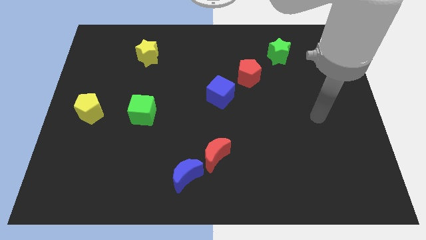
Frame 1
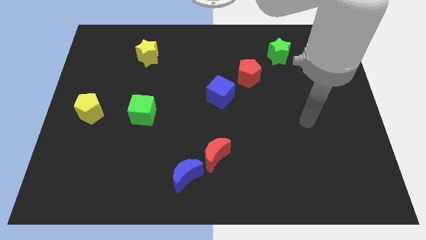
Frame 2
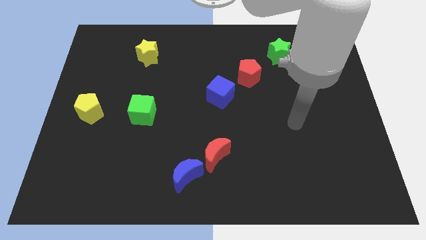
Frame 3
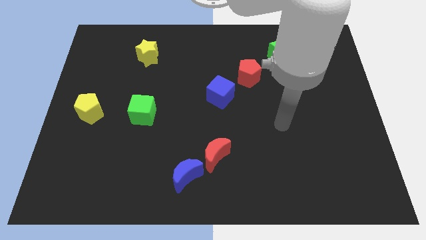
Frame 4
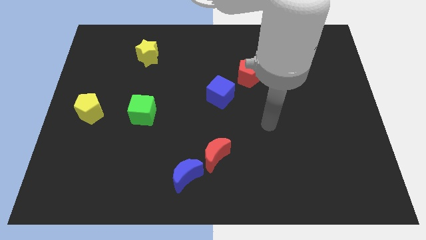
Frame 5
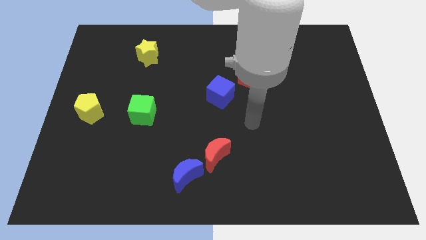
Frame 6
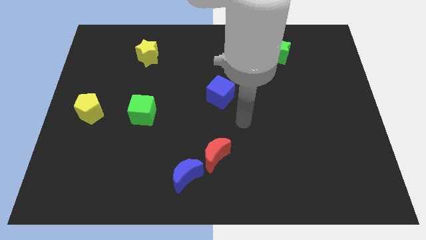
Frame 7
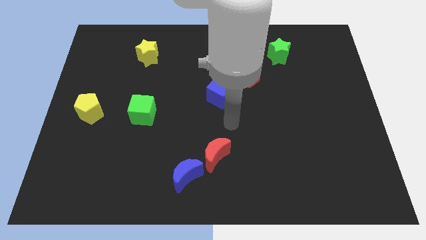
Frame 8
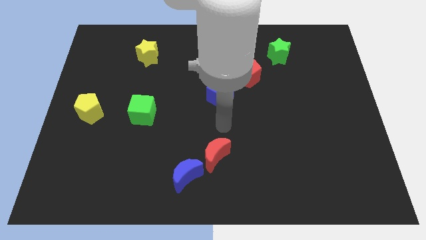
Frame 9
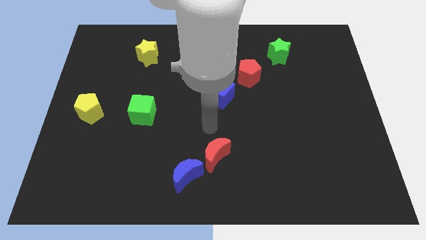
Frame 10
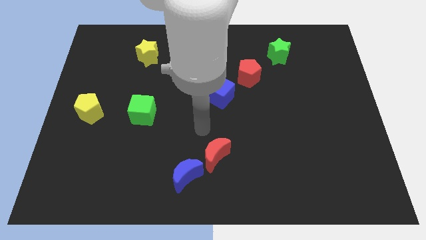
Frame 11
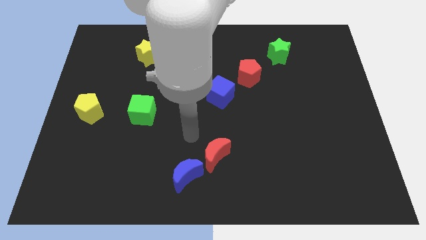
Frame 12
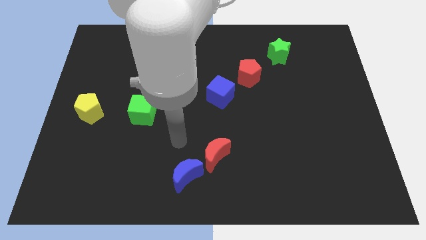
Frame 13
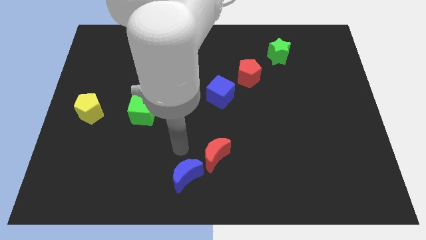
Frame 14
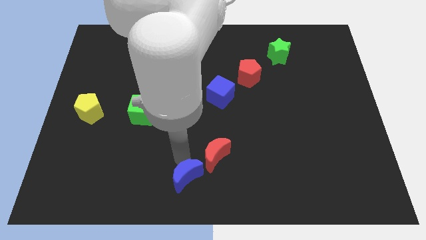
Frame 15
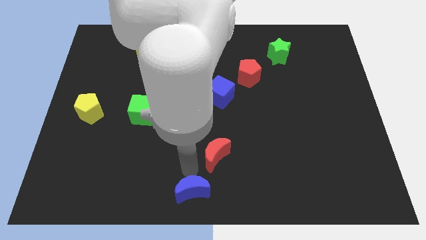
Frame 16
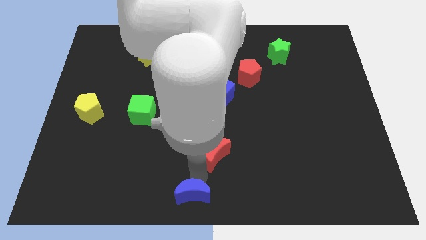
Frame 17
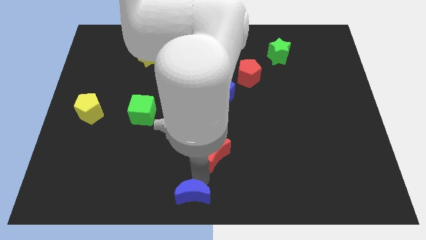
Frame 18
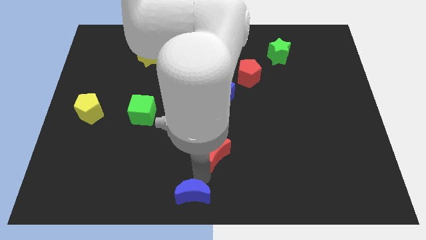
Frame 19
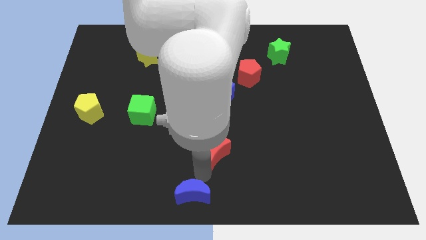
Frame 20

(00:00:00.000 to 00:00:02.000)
move the red moon away from the blue moon

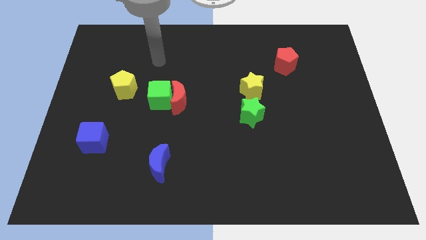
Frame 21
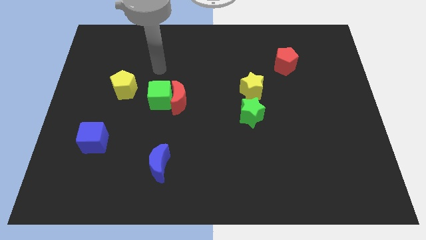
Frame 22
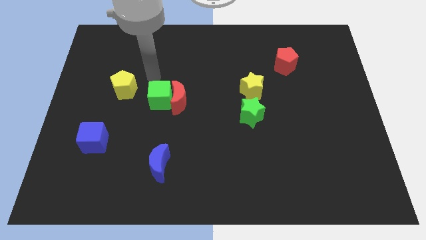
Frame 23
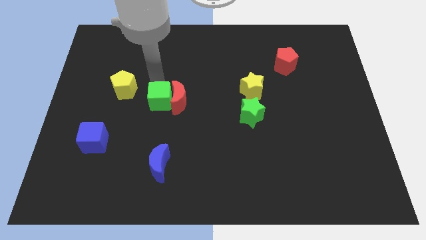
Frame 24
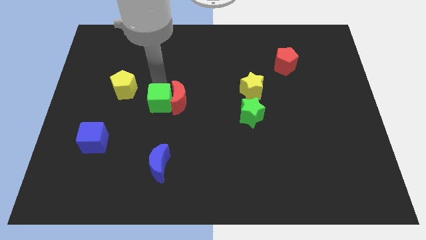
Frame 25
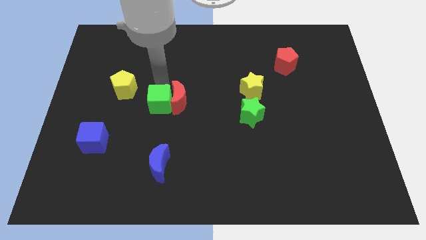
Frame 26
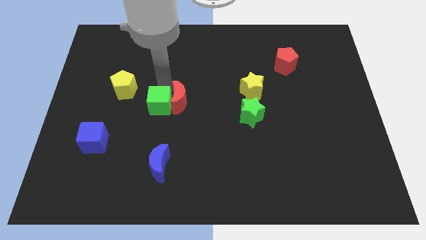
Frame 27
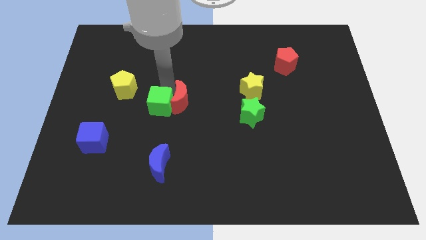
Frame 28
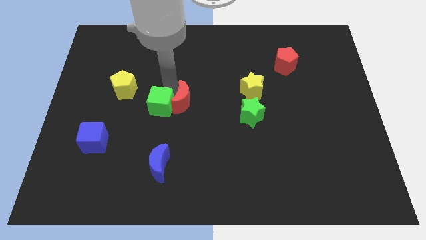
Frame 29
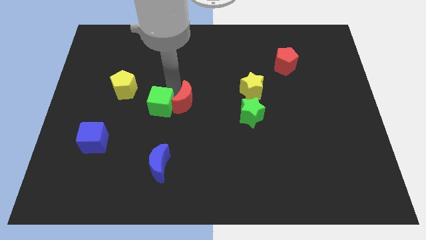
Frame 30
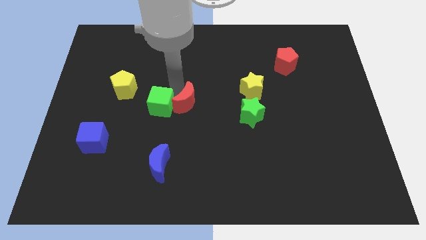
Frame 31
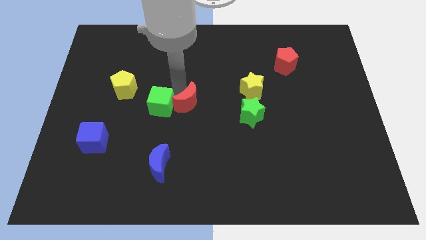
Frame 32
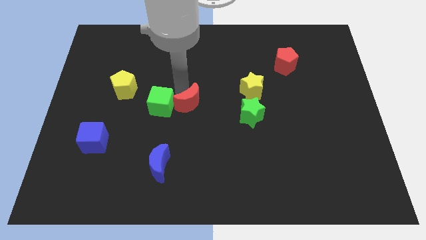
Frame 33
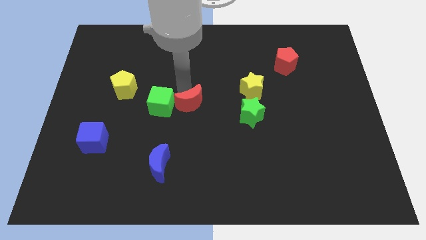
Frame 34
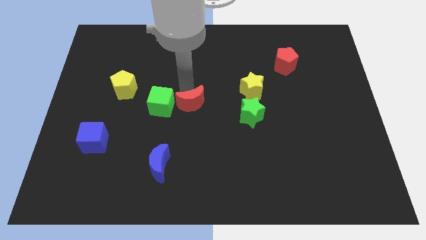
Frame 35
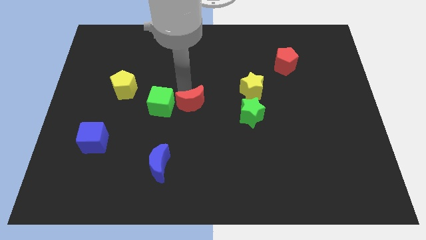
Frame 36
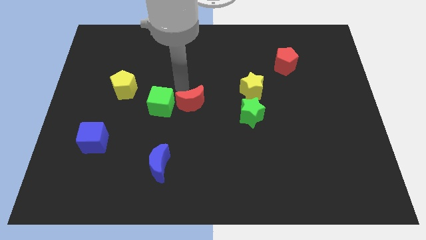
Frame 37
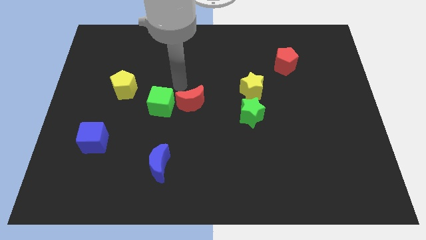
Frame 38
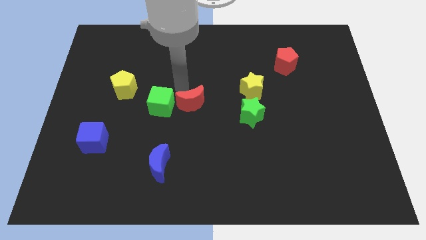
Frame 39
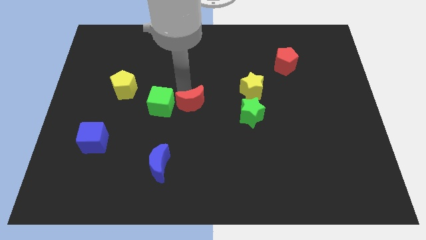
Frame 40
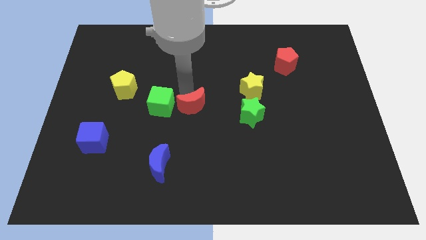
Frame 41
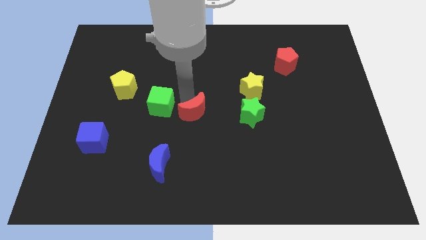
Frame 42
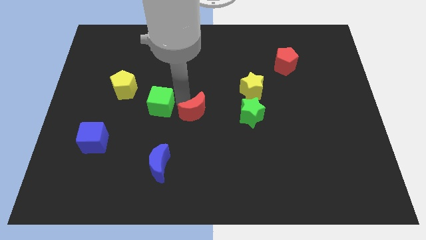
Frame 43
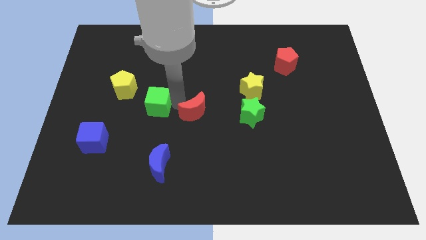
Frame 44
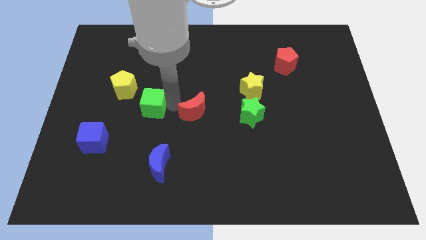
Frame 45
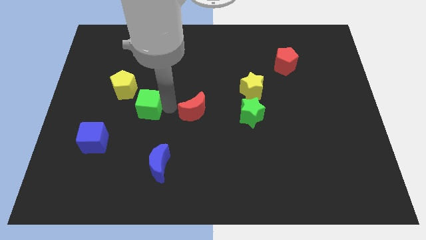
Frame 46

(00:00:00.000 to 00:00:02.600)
separate the red moon from the green cube

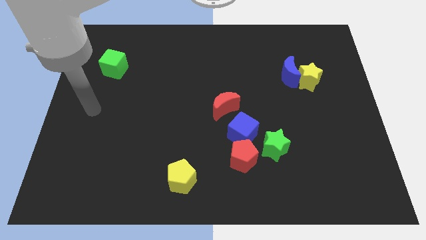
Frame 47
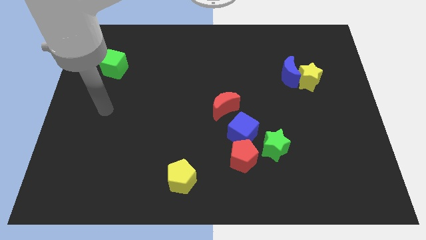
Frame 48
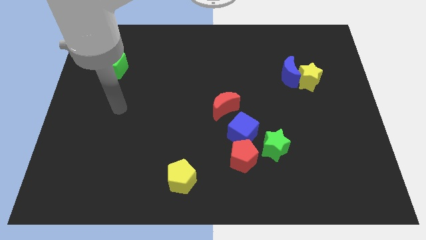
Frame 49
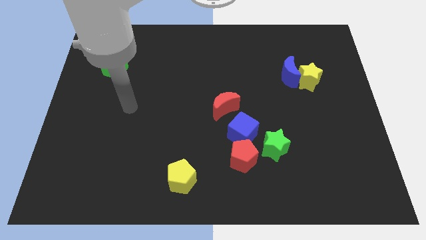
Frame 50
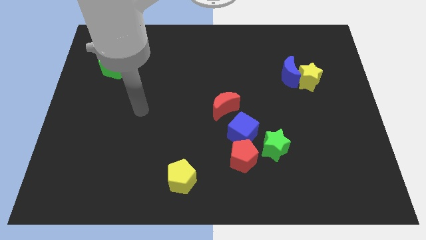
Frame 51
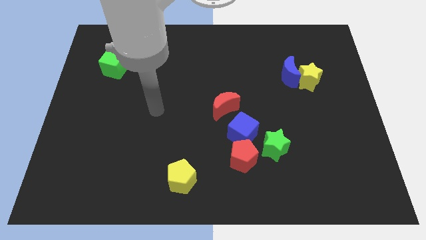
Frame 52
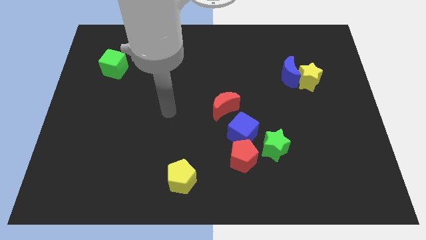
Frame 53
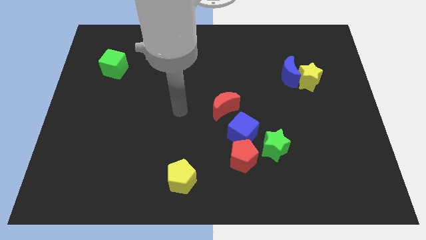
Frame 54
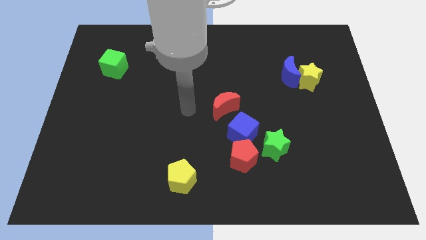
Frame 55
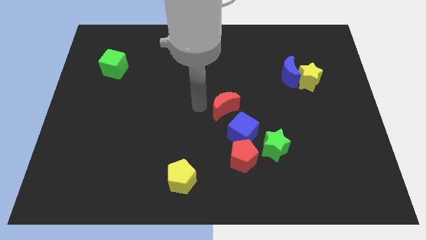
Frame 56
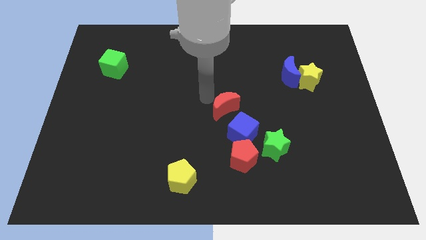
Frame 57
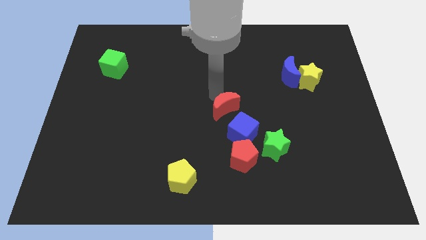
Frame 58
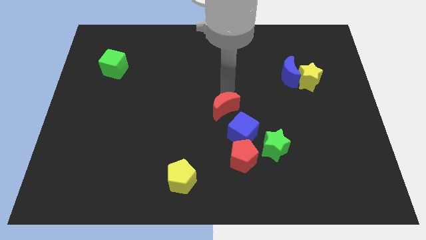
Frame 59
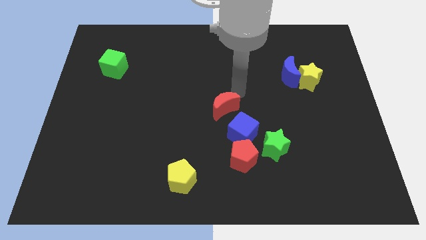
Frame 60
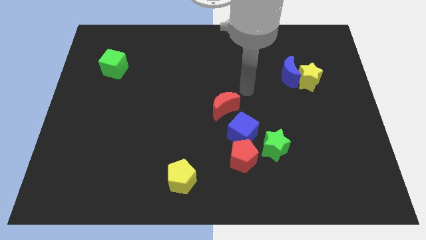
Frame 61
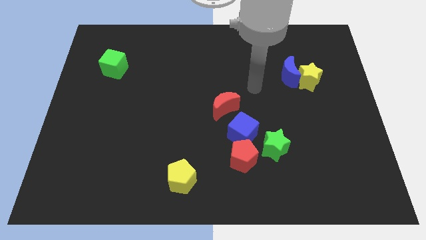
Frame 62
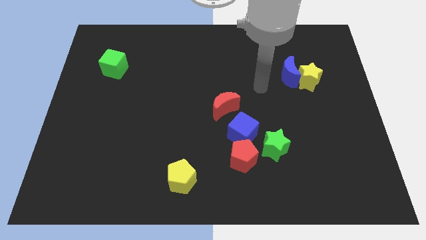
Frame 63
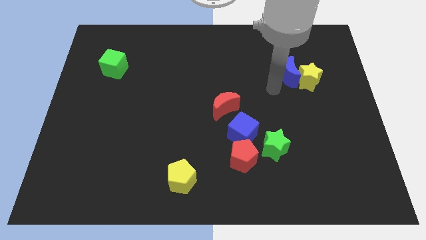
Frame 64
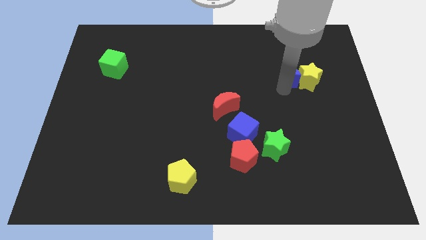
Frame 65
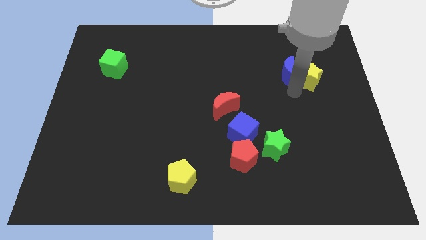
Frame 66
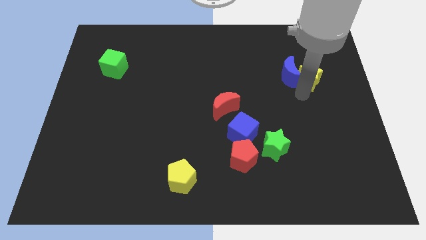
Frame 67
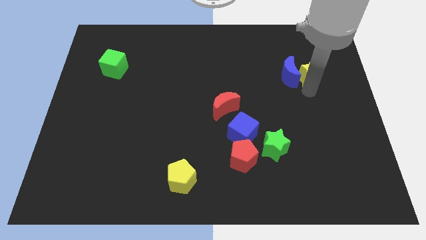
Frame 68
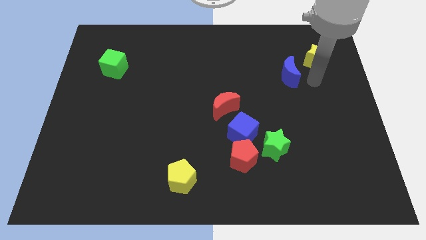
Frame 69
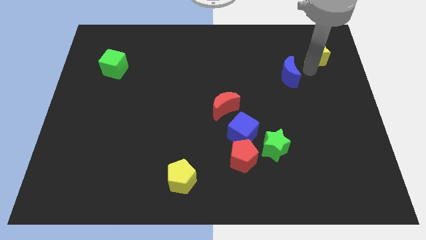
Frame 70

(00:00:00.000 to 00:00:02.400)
pull the blue moon apart from the yellow star

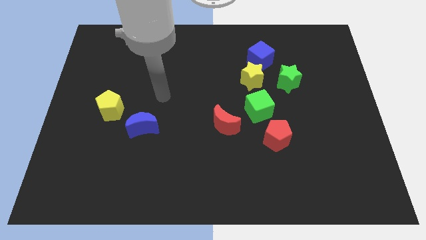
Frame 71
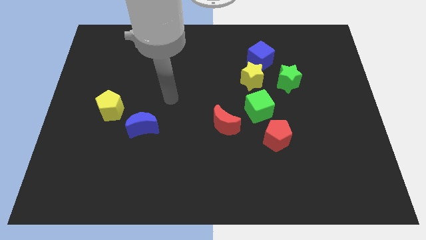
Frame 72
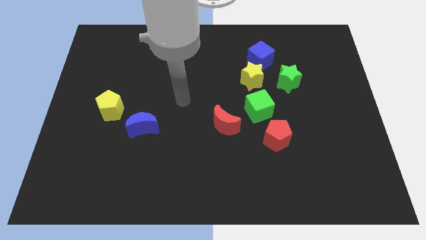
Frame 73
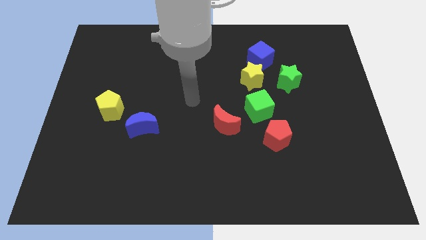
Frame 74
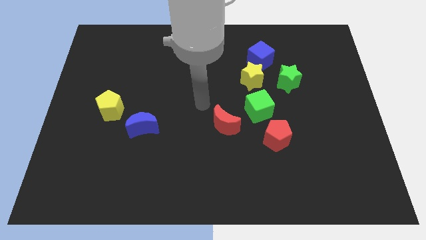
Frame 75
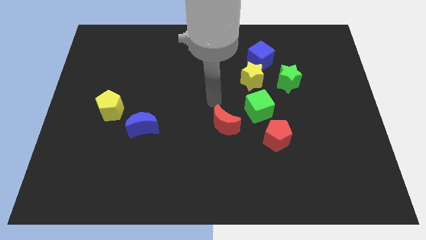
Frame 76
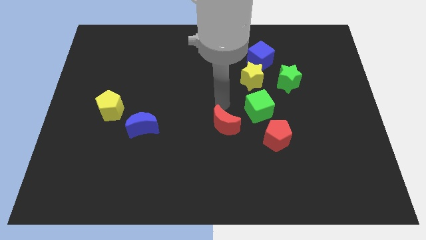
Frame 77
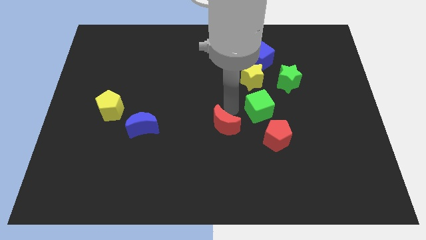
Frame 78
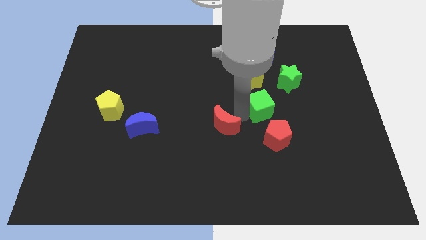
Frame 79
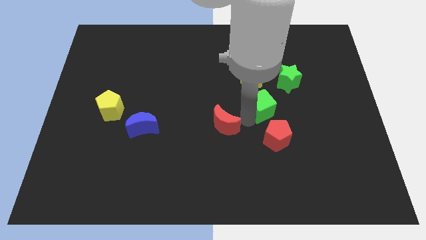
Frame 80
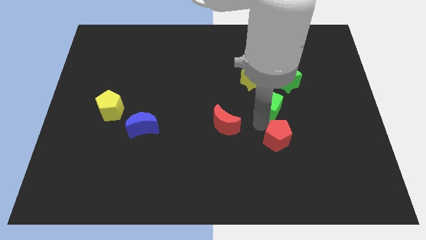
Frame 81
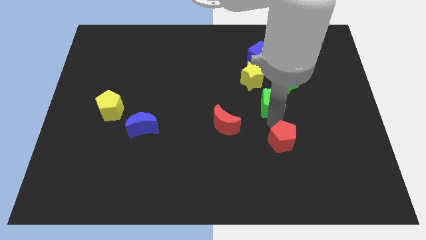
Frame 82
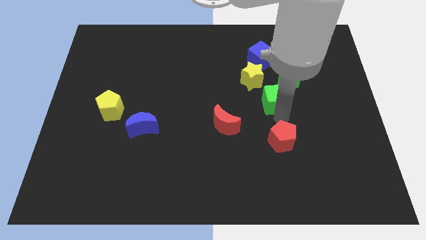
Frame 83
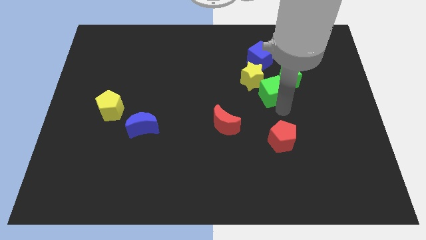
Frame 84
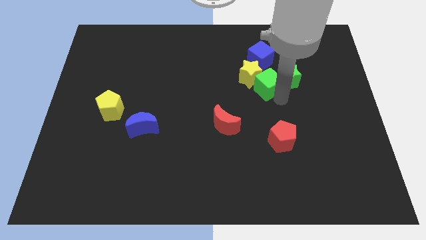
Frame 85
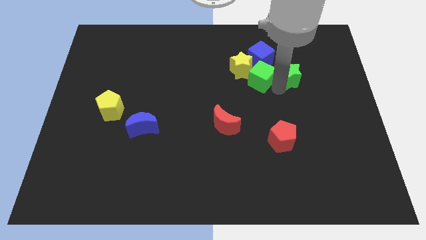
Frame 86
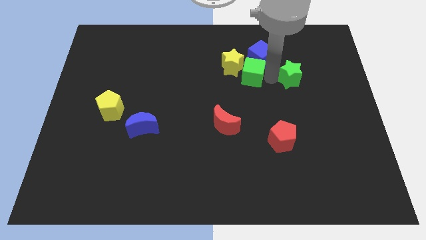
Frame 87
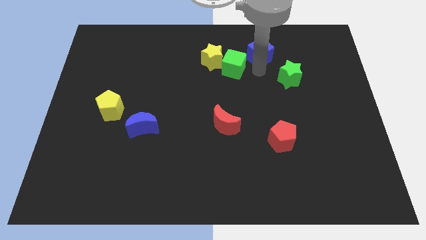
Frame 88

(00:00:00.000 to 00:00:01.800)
pull the yellow star apart from the group of blocks

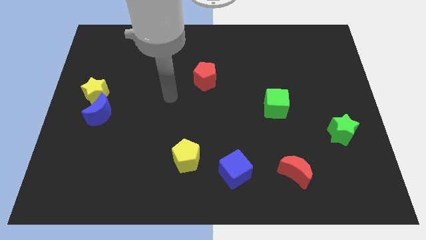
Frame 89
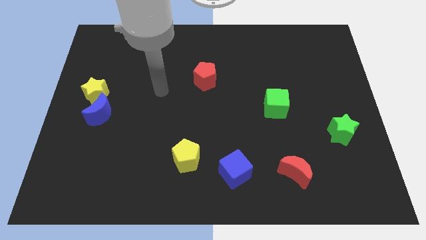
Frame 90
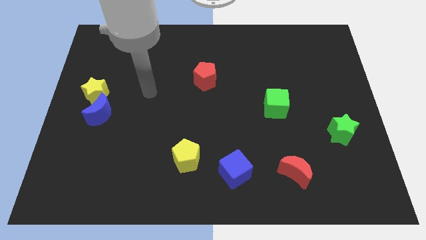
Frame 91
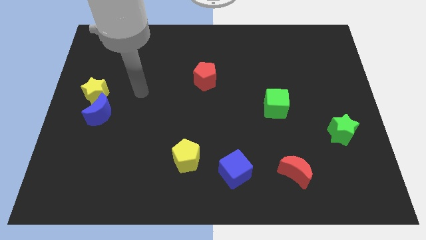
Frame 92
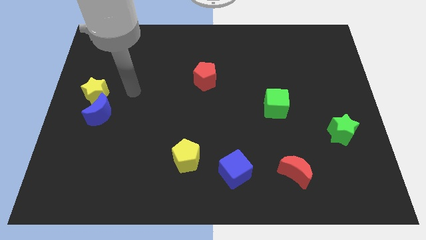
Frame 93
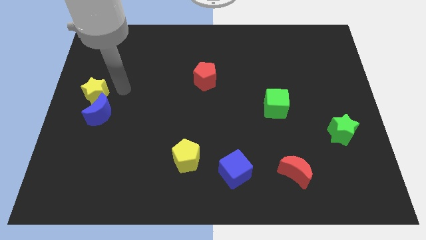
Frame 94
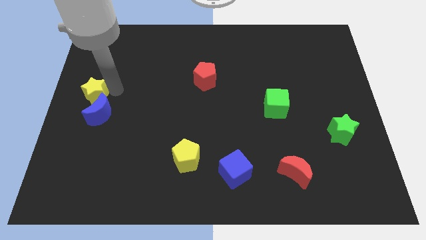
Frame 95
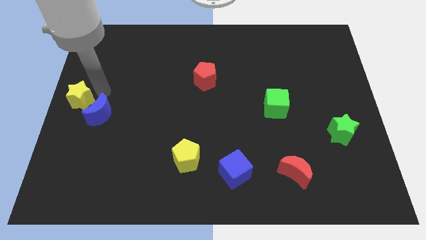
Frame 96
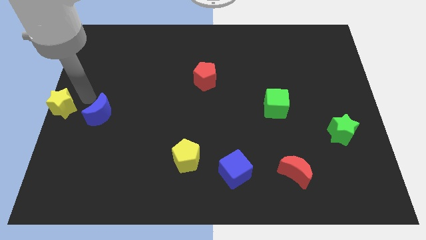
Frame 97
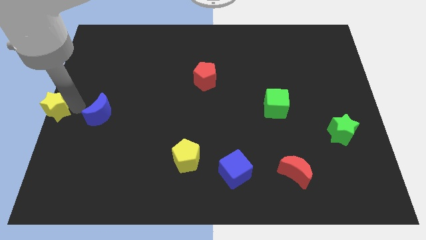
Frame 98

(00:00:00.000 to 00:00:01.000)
separate the blue moon from the yellow star
